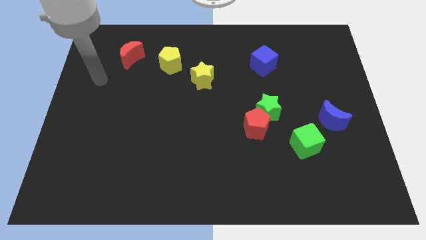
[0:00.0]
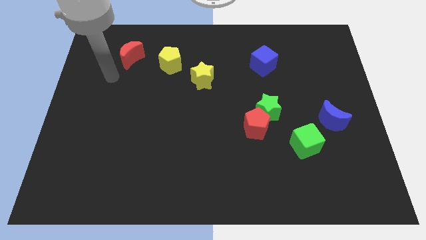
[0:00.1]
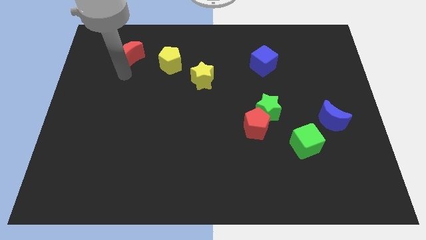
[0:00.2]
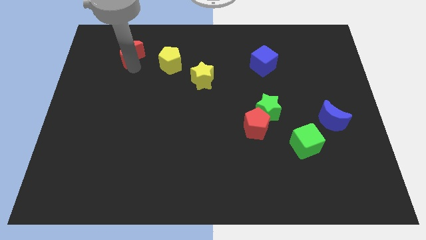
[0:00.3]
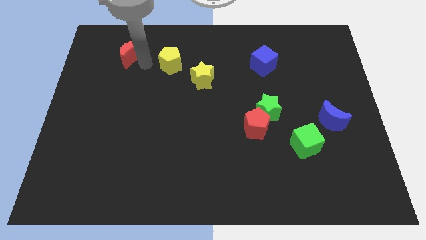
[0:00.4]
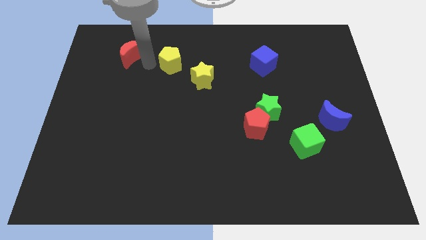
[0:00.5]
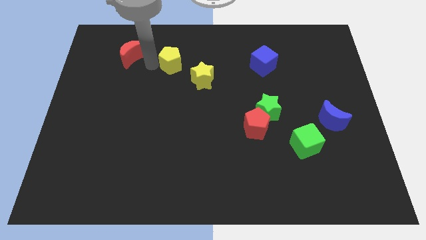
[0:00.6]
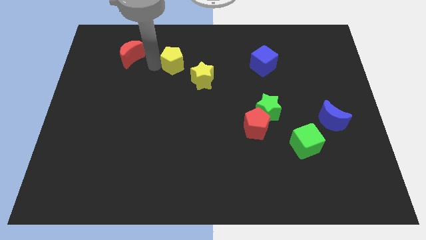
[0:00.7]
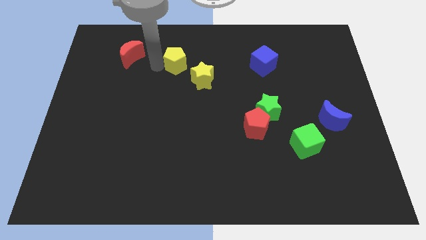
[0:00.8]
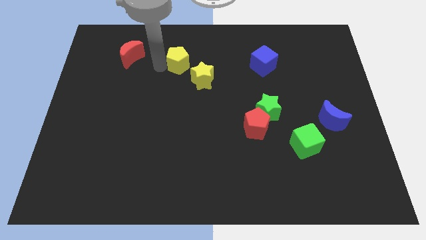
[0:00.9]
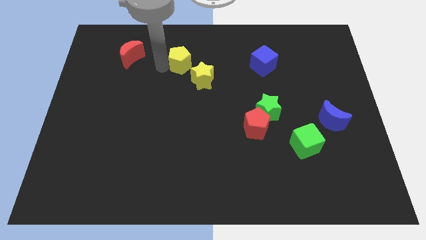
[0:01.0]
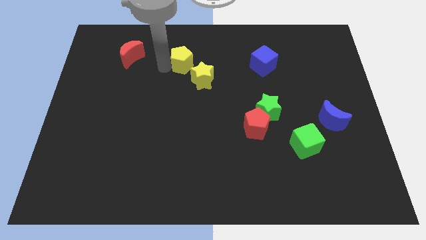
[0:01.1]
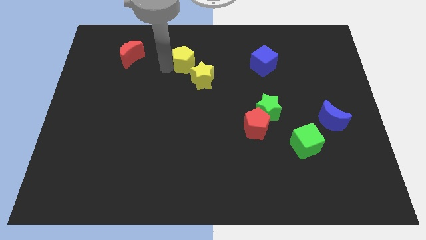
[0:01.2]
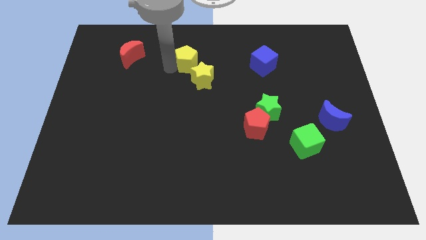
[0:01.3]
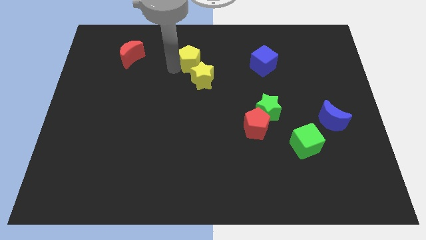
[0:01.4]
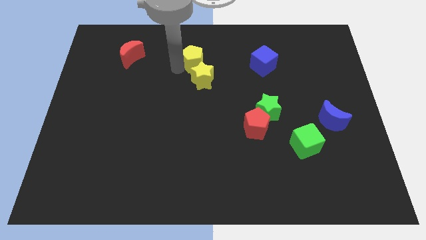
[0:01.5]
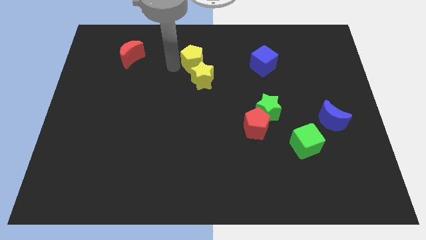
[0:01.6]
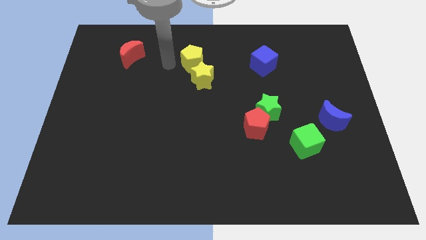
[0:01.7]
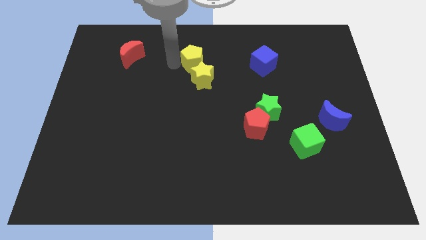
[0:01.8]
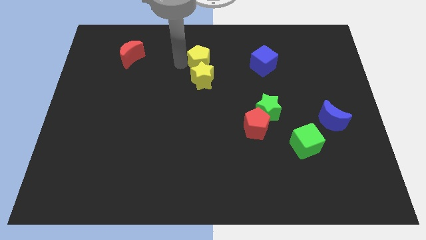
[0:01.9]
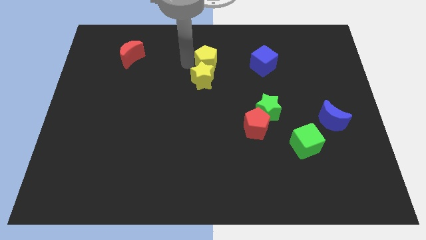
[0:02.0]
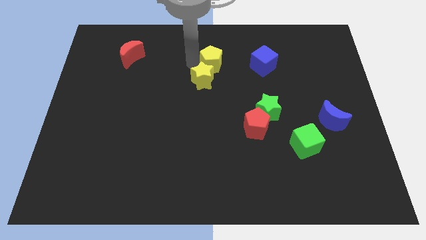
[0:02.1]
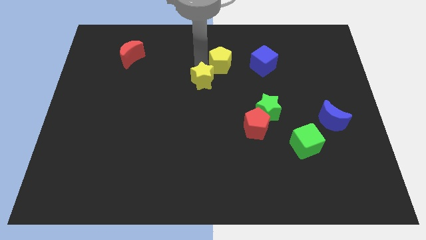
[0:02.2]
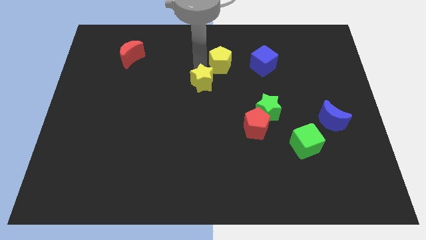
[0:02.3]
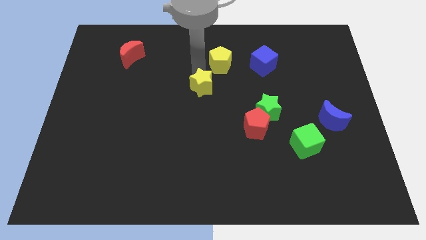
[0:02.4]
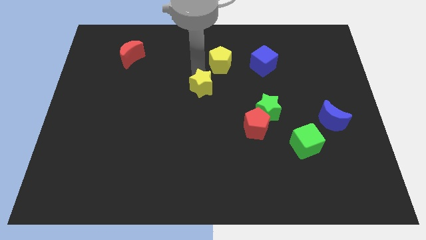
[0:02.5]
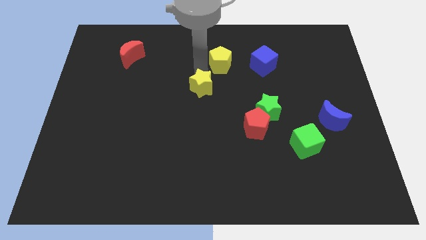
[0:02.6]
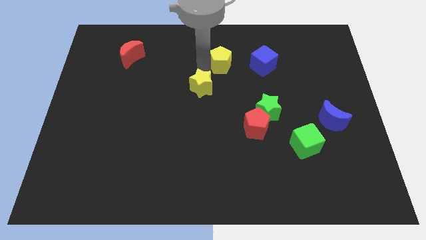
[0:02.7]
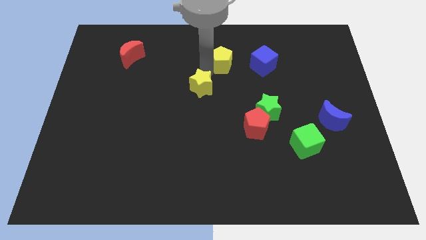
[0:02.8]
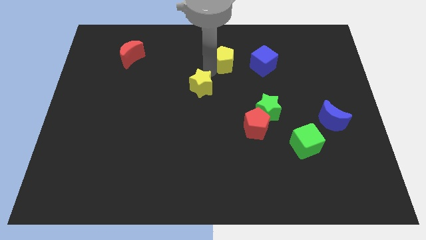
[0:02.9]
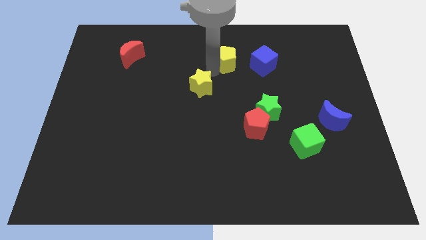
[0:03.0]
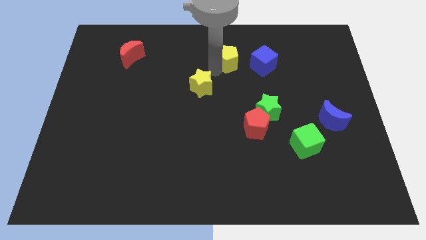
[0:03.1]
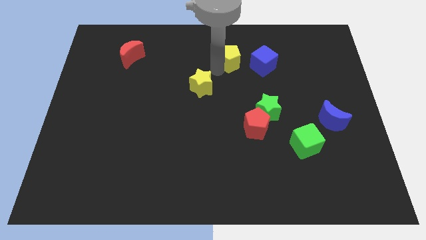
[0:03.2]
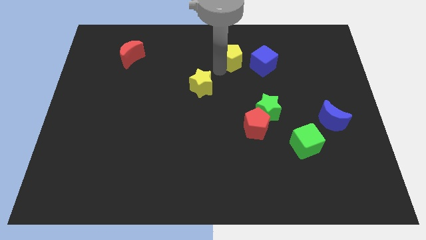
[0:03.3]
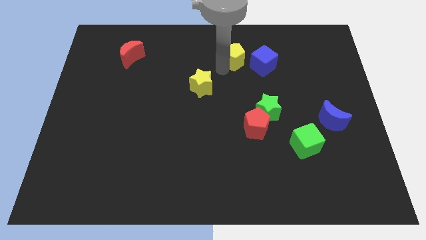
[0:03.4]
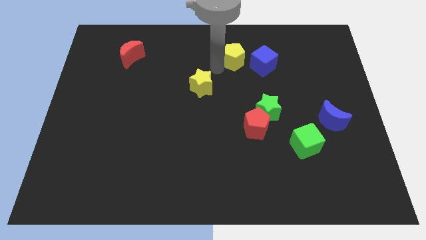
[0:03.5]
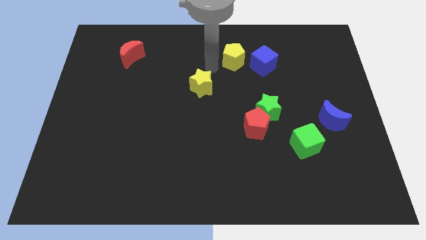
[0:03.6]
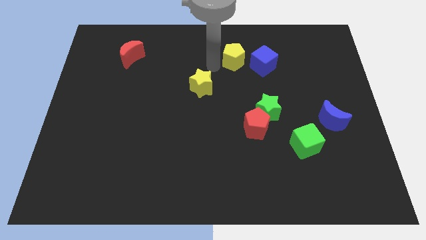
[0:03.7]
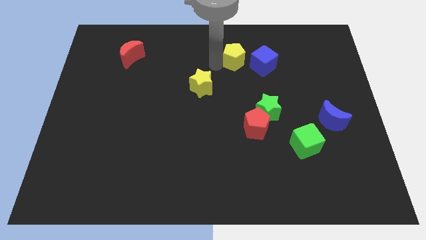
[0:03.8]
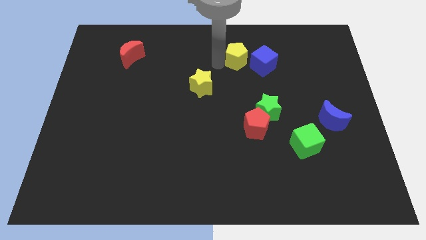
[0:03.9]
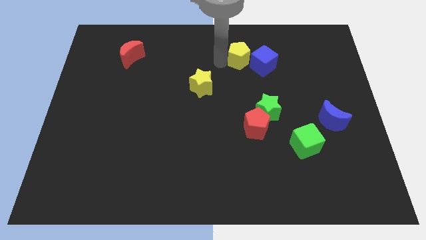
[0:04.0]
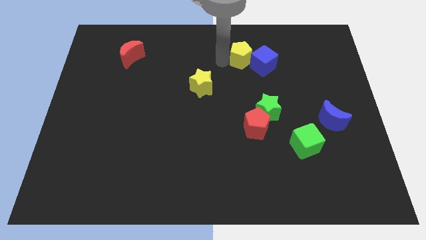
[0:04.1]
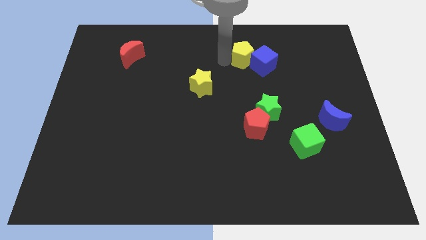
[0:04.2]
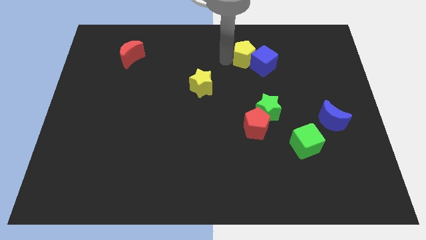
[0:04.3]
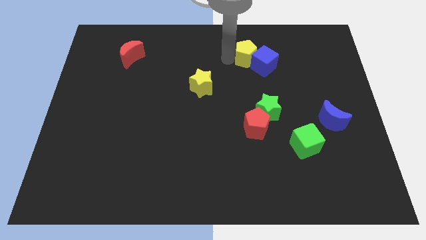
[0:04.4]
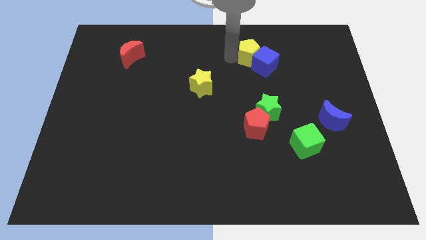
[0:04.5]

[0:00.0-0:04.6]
slide the yellow pentagon right

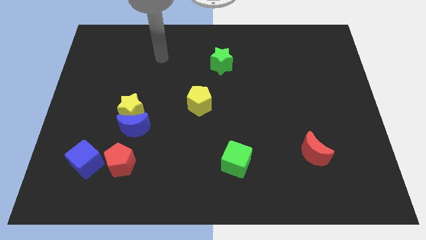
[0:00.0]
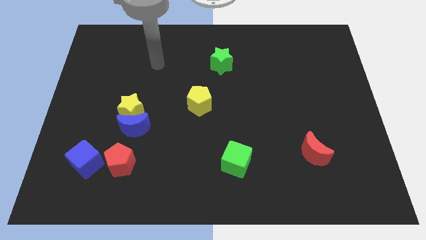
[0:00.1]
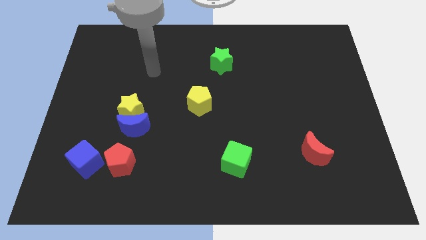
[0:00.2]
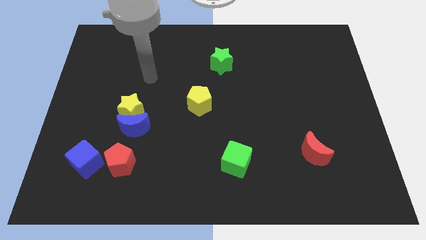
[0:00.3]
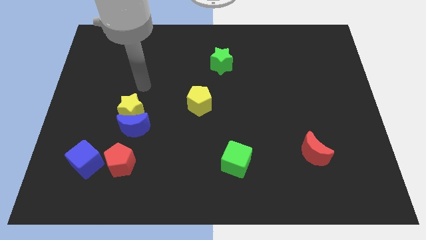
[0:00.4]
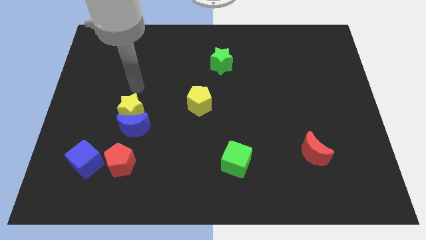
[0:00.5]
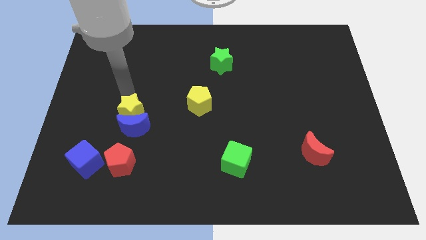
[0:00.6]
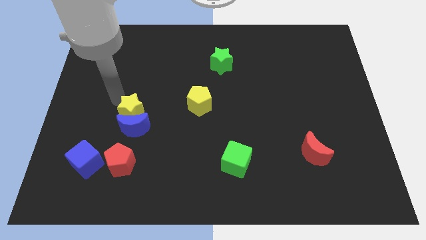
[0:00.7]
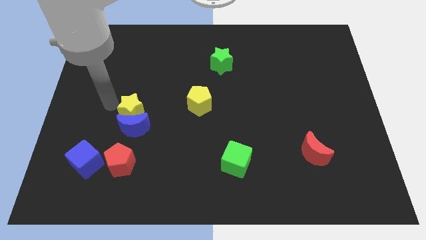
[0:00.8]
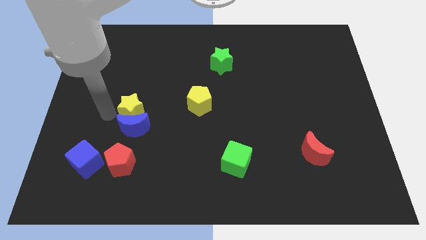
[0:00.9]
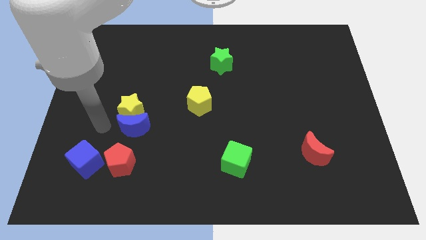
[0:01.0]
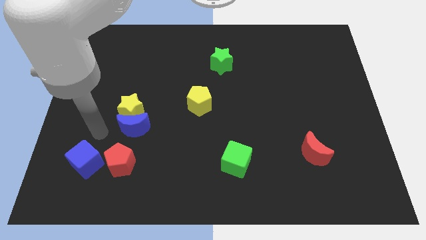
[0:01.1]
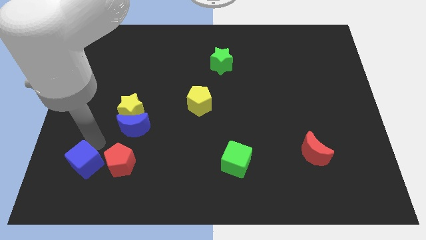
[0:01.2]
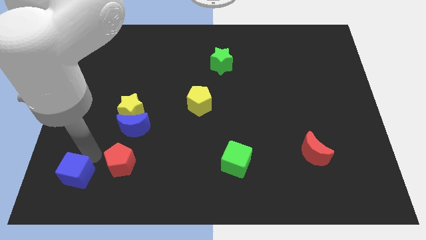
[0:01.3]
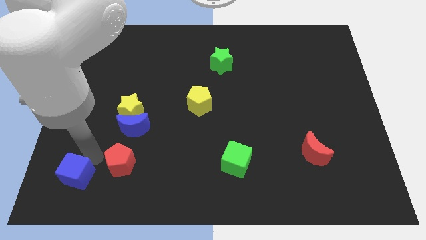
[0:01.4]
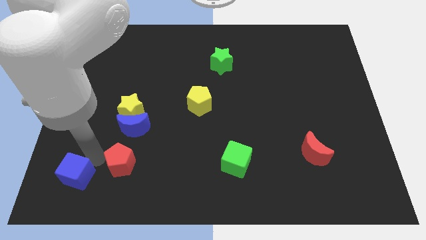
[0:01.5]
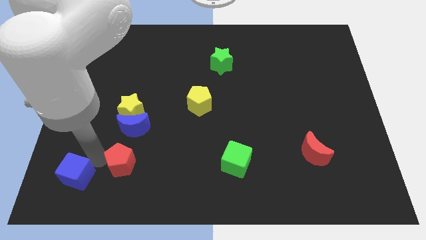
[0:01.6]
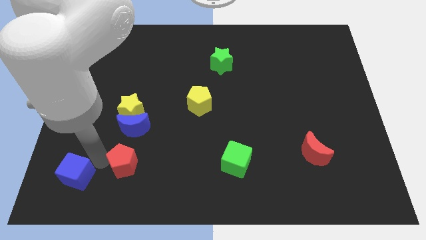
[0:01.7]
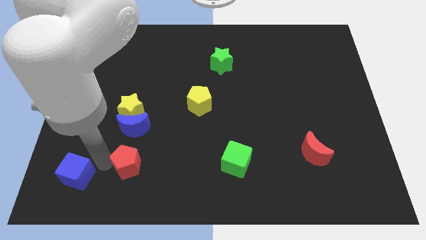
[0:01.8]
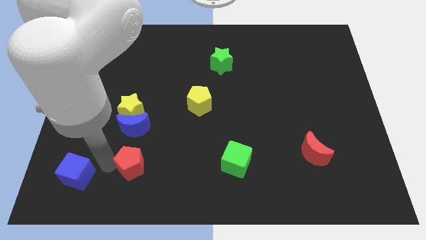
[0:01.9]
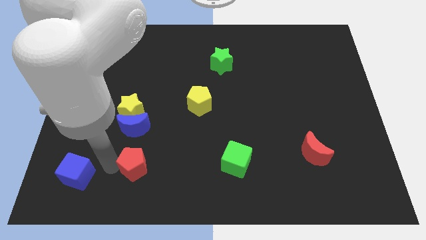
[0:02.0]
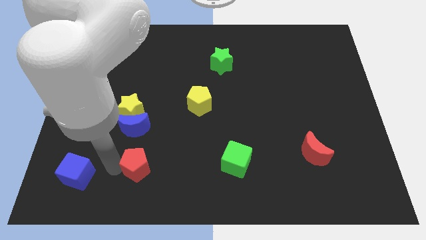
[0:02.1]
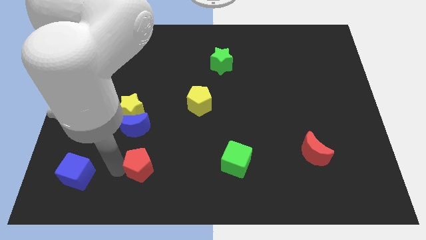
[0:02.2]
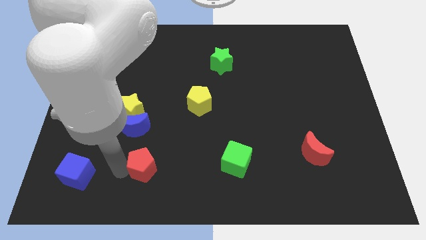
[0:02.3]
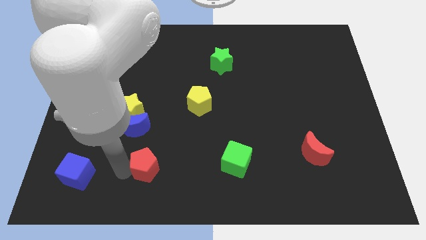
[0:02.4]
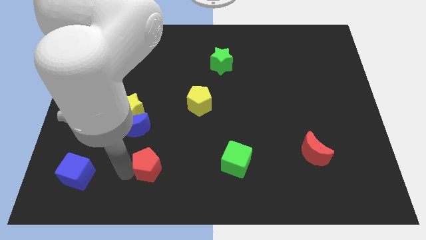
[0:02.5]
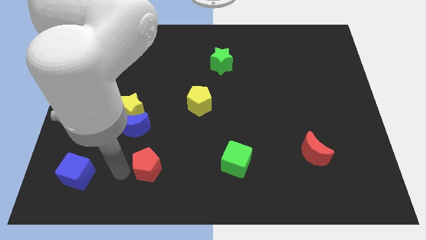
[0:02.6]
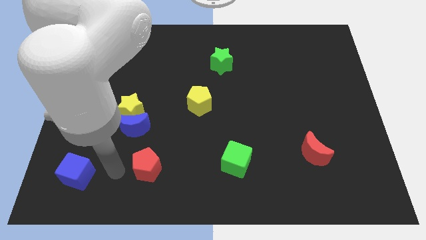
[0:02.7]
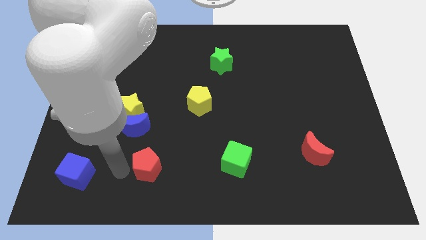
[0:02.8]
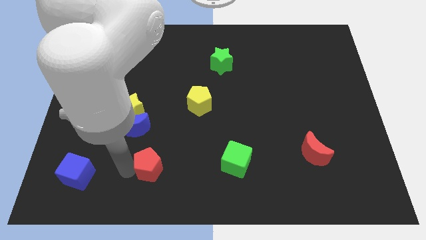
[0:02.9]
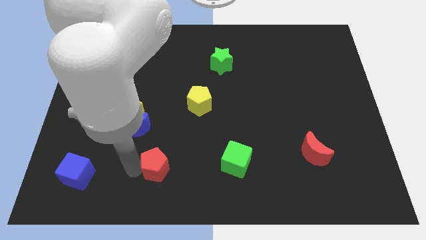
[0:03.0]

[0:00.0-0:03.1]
push the red pentagon somewhat right
